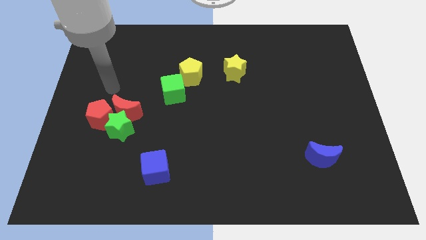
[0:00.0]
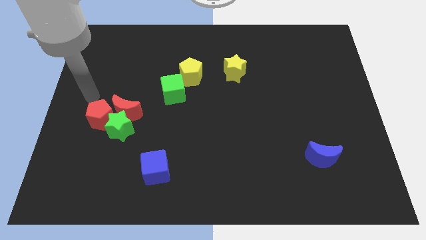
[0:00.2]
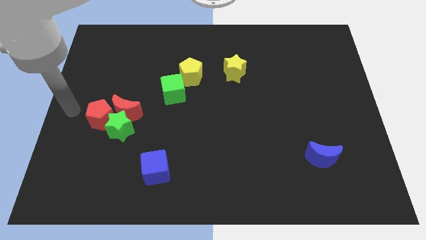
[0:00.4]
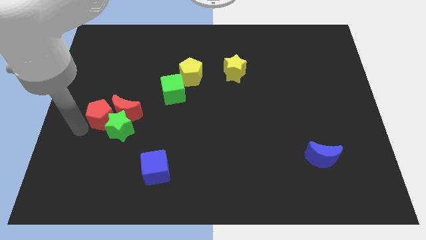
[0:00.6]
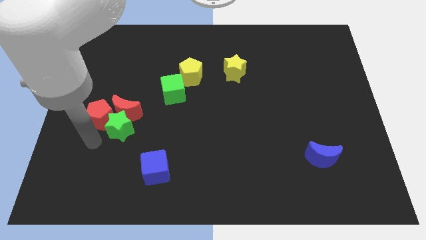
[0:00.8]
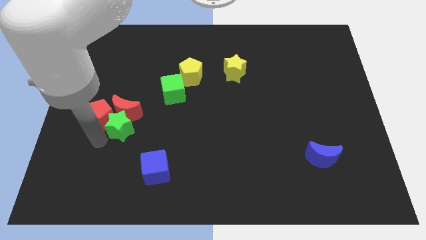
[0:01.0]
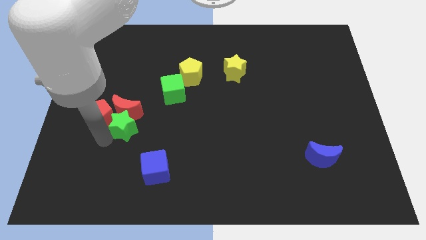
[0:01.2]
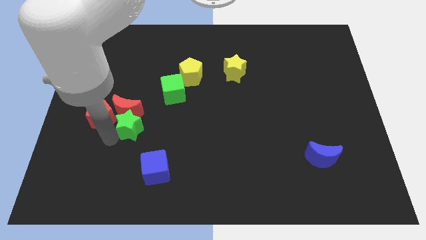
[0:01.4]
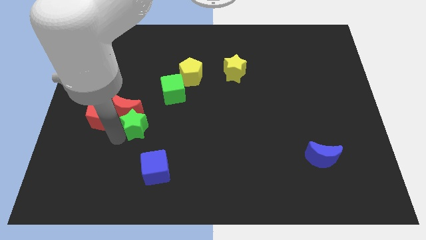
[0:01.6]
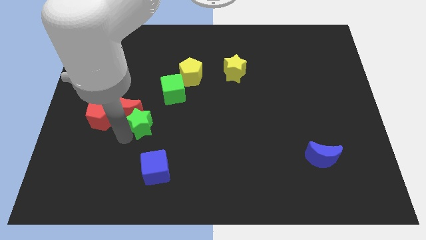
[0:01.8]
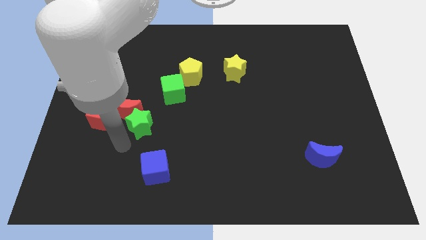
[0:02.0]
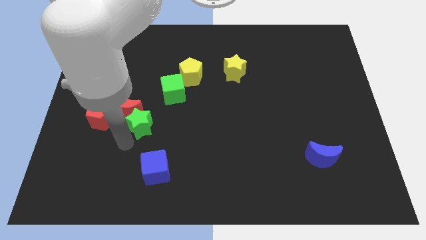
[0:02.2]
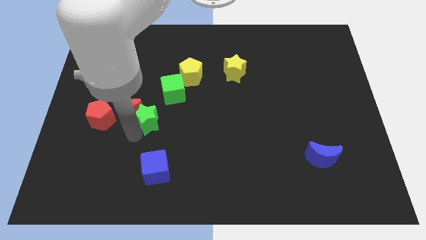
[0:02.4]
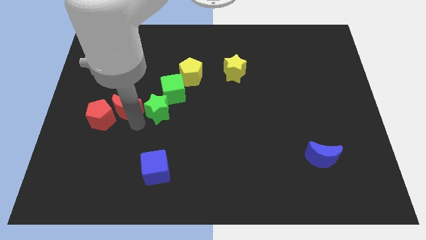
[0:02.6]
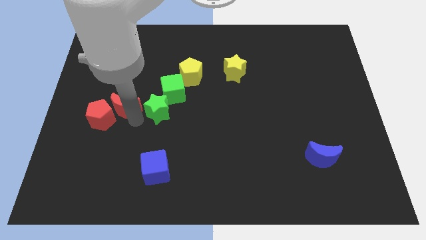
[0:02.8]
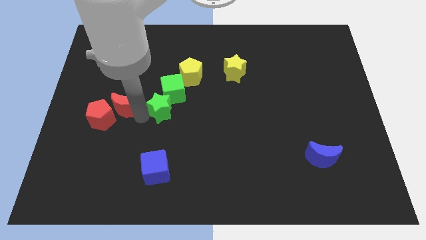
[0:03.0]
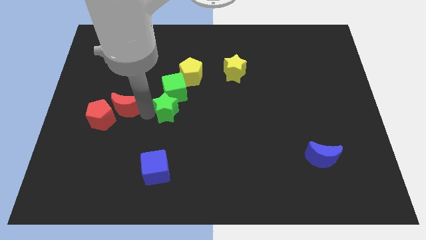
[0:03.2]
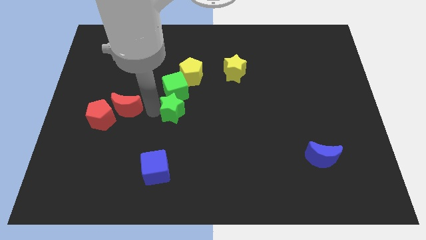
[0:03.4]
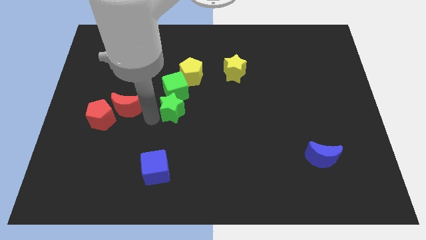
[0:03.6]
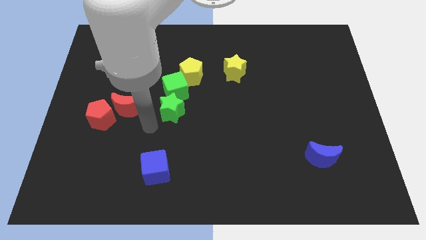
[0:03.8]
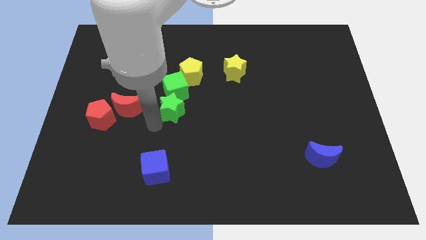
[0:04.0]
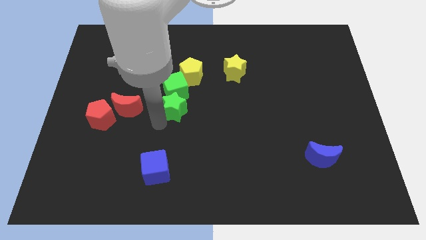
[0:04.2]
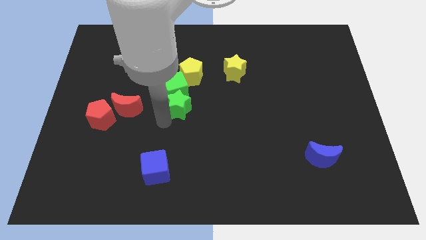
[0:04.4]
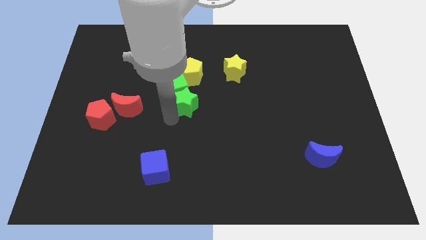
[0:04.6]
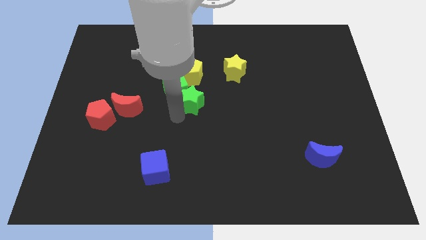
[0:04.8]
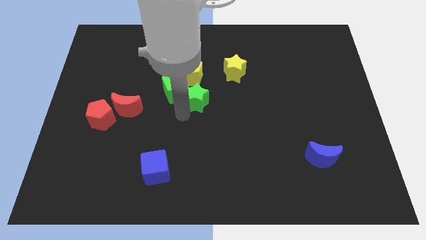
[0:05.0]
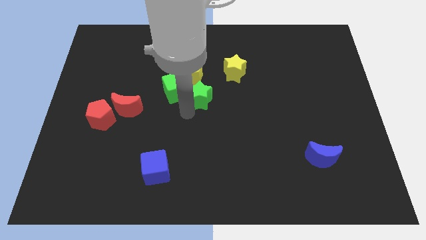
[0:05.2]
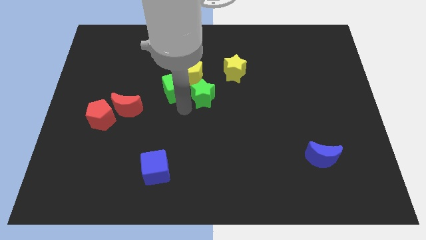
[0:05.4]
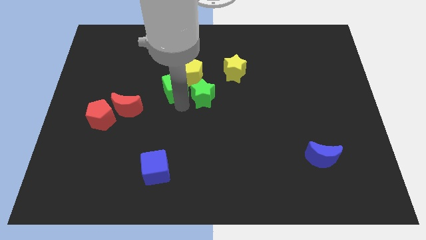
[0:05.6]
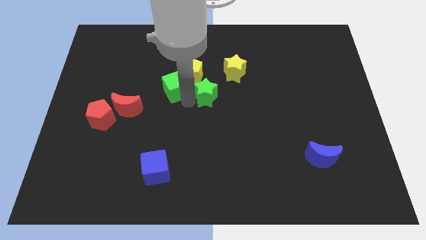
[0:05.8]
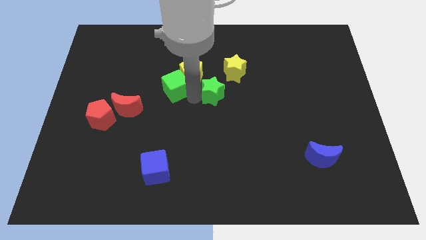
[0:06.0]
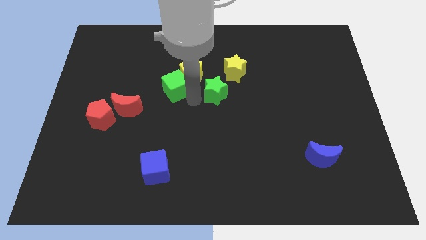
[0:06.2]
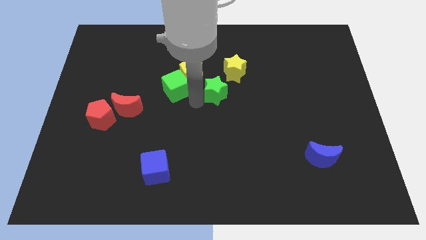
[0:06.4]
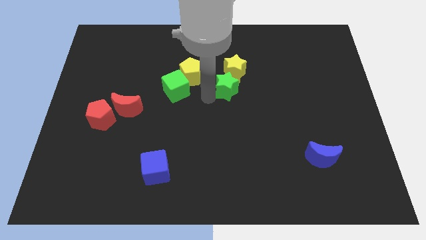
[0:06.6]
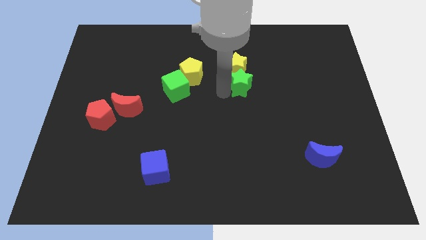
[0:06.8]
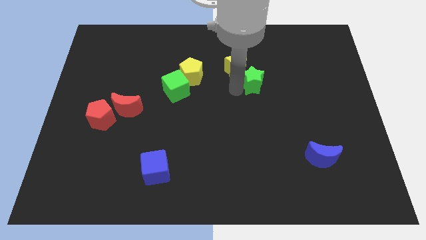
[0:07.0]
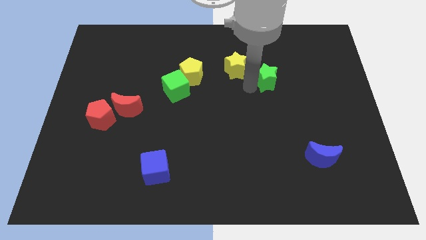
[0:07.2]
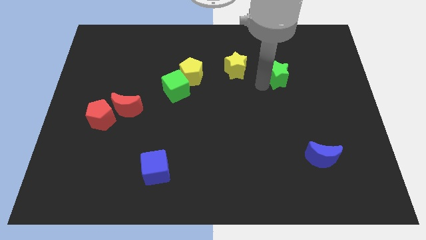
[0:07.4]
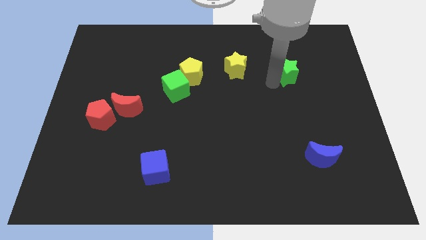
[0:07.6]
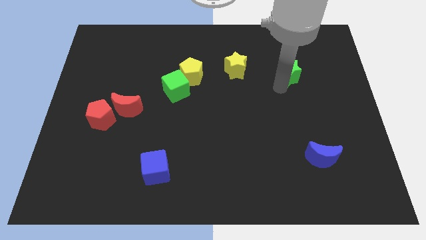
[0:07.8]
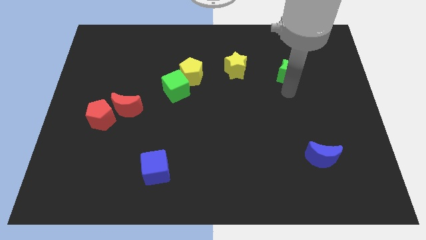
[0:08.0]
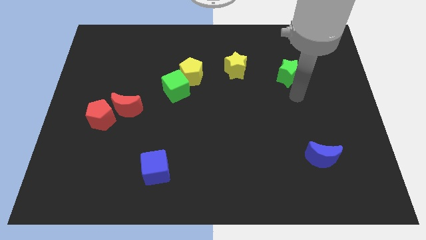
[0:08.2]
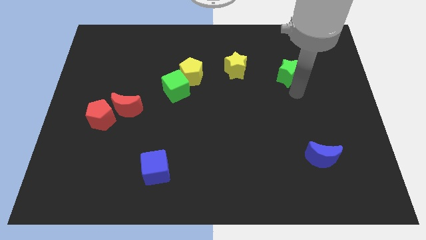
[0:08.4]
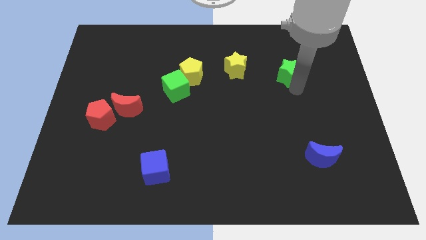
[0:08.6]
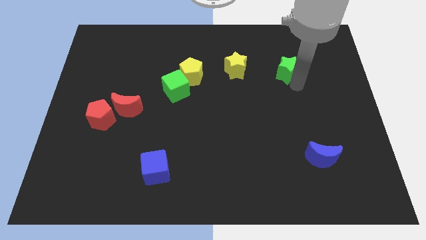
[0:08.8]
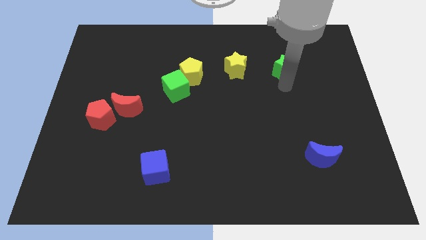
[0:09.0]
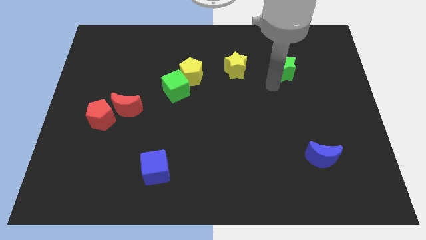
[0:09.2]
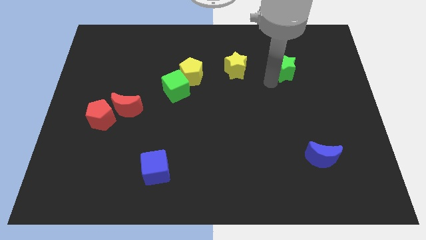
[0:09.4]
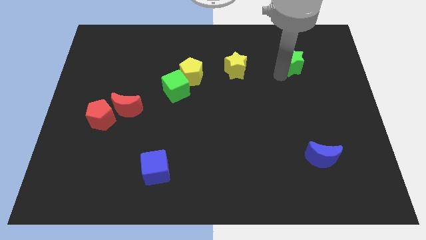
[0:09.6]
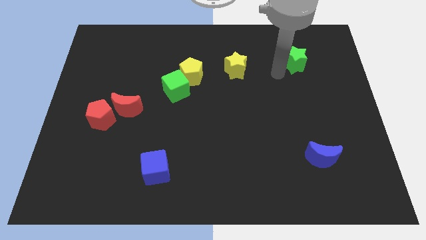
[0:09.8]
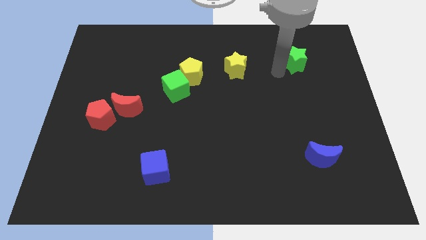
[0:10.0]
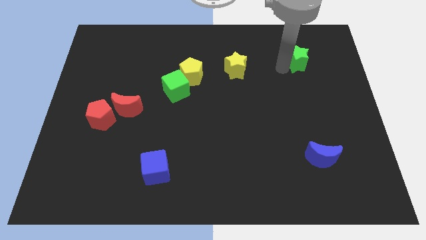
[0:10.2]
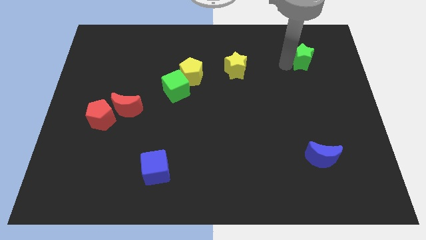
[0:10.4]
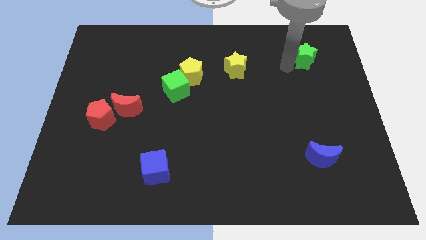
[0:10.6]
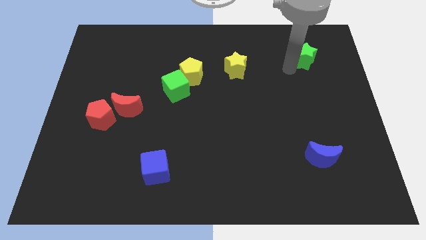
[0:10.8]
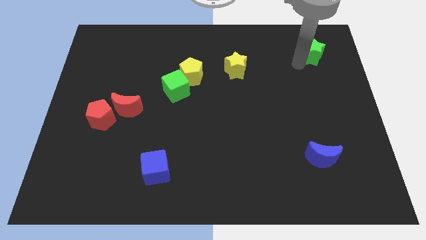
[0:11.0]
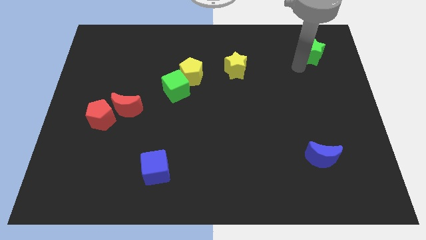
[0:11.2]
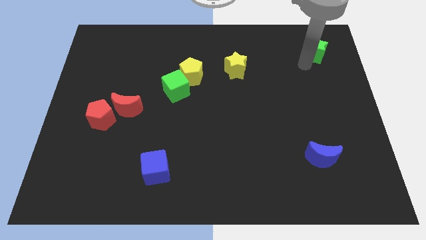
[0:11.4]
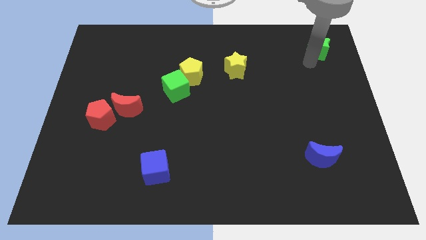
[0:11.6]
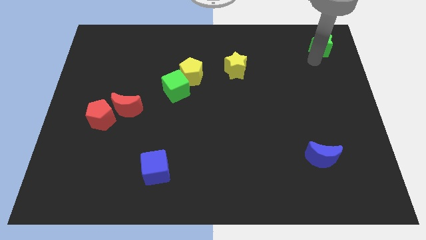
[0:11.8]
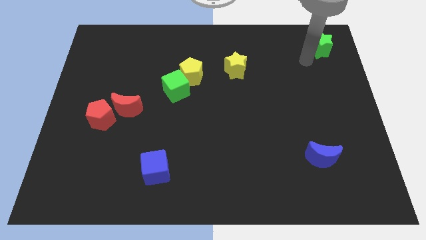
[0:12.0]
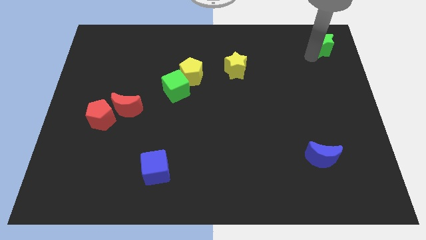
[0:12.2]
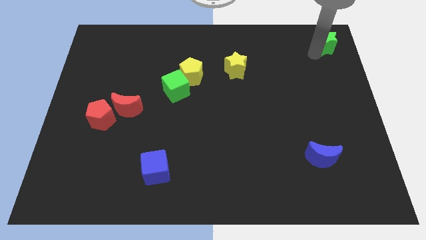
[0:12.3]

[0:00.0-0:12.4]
slide the green star to the top right corner
